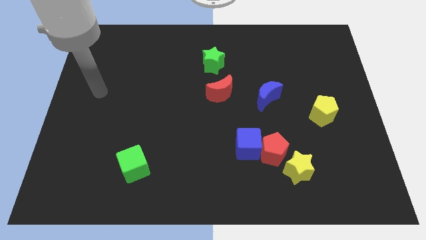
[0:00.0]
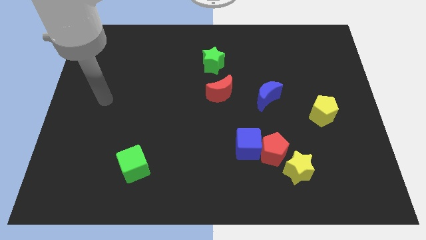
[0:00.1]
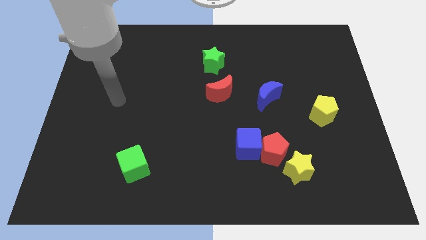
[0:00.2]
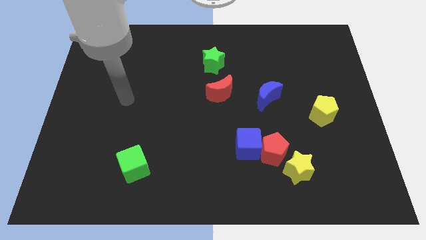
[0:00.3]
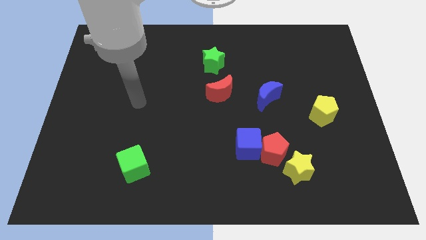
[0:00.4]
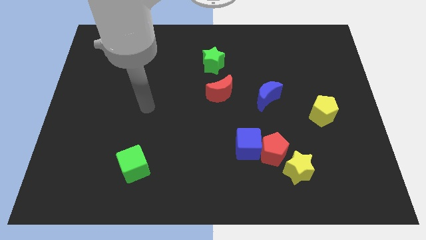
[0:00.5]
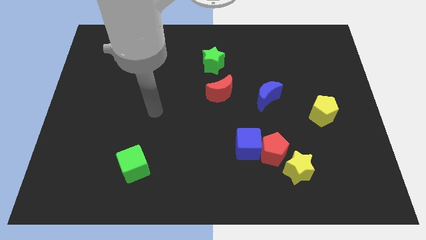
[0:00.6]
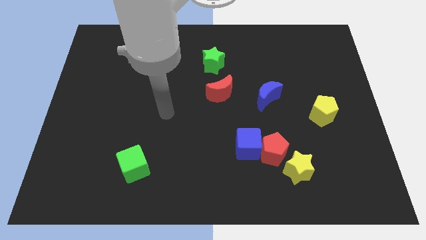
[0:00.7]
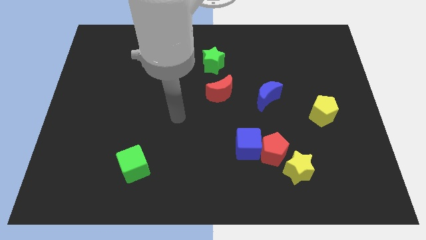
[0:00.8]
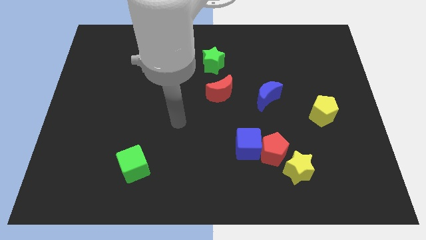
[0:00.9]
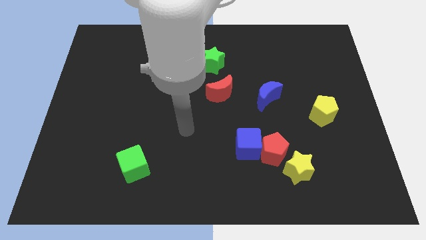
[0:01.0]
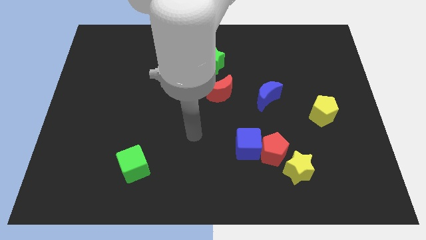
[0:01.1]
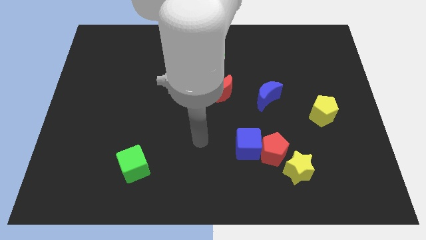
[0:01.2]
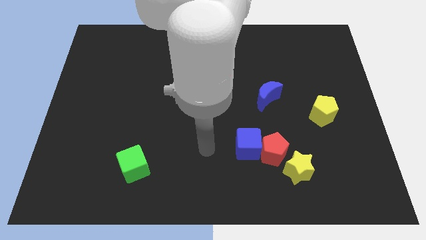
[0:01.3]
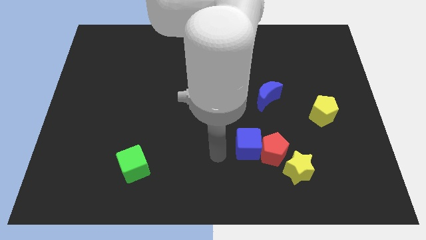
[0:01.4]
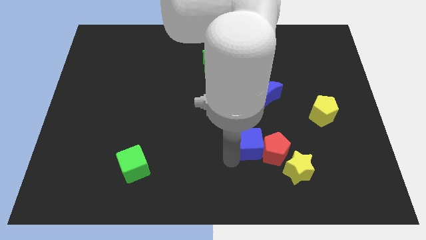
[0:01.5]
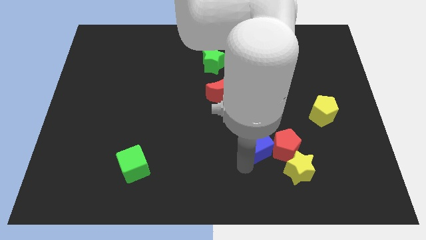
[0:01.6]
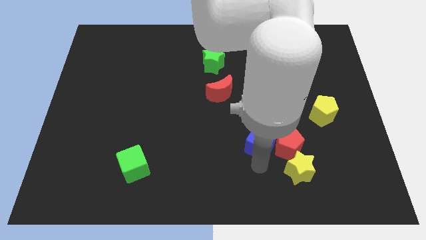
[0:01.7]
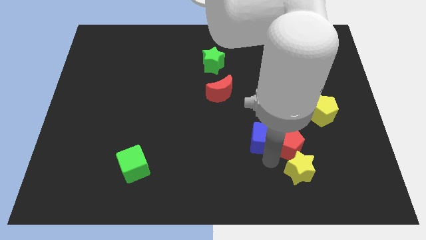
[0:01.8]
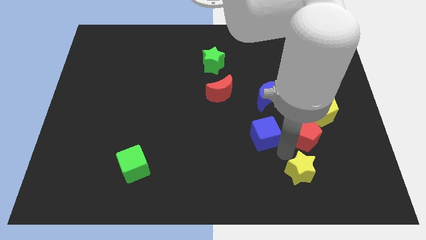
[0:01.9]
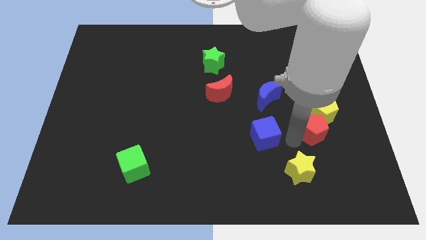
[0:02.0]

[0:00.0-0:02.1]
separate the blue cube from the red pentagon

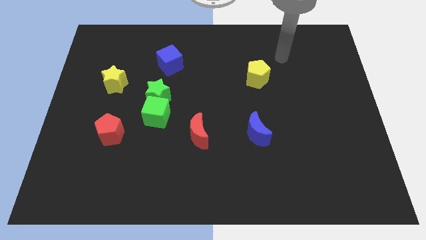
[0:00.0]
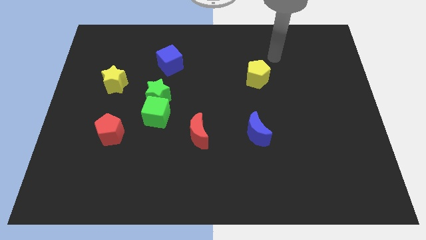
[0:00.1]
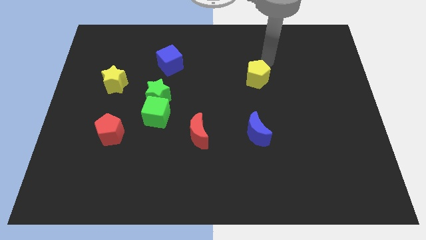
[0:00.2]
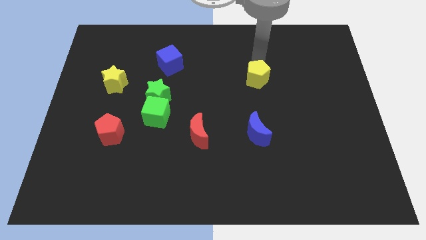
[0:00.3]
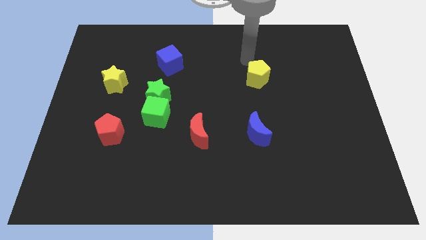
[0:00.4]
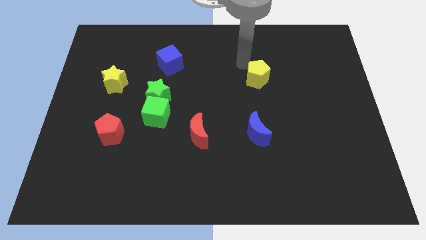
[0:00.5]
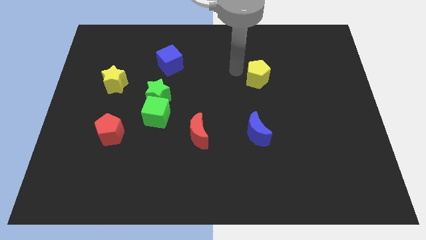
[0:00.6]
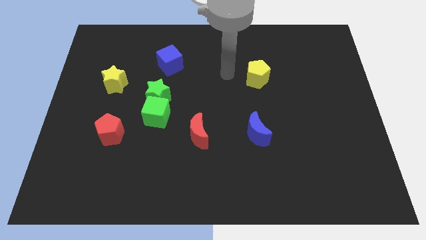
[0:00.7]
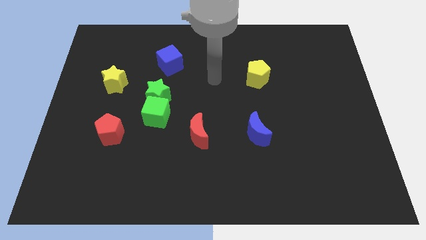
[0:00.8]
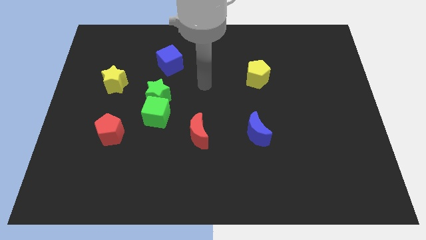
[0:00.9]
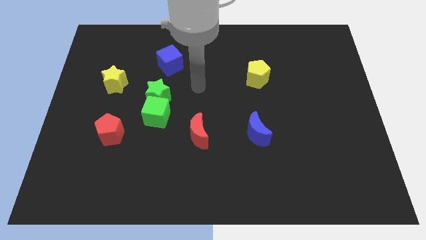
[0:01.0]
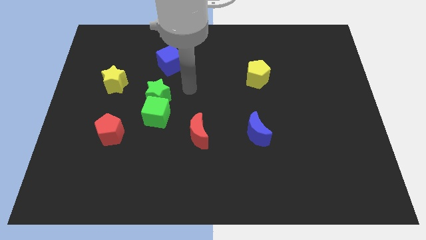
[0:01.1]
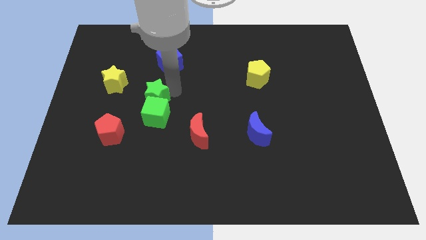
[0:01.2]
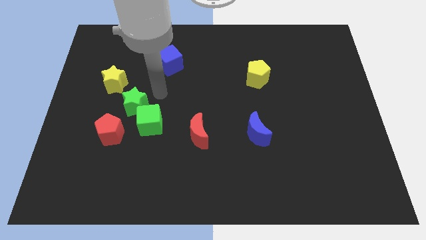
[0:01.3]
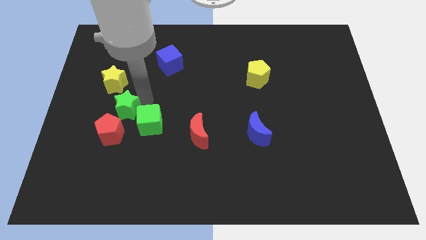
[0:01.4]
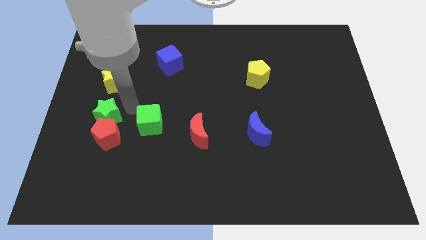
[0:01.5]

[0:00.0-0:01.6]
pull the green cube apart from the green star

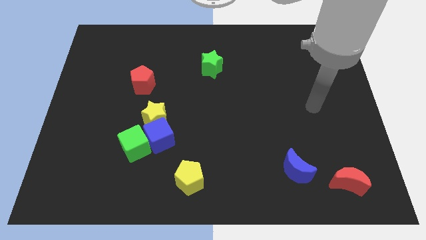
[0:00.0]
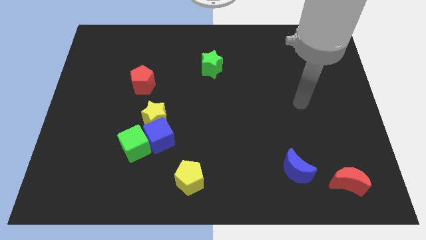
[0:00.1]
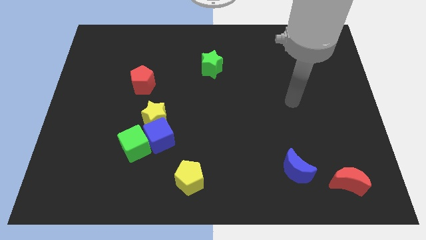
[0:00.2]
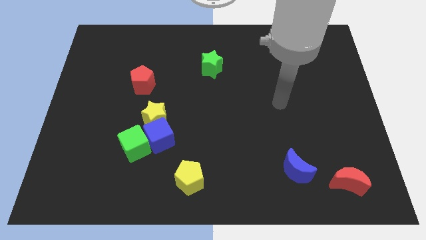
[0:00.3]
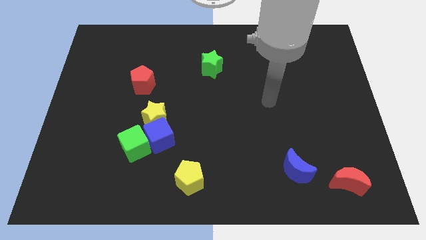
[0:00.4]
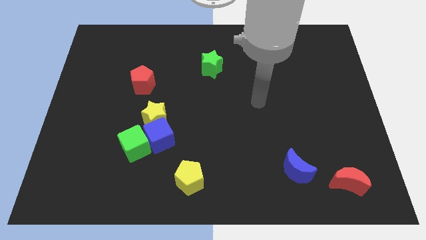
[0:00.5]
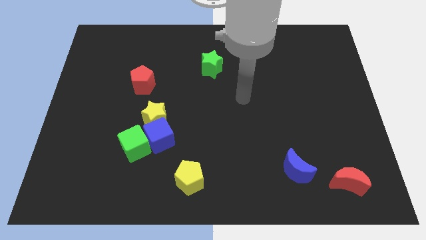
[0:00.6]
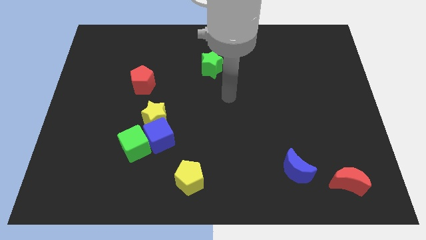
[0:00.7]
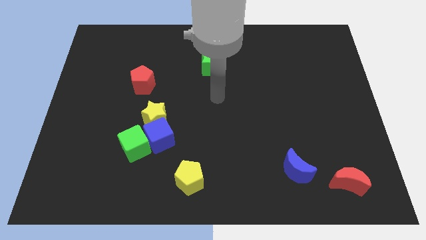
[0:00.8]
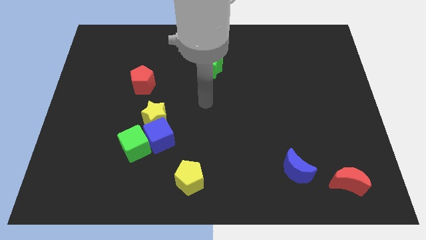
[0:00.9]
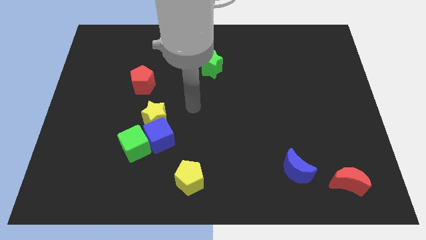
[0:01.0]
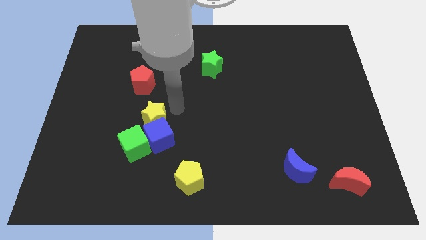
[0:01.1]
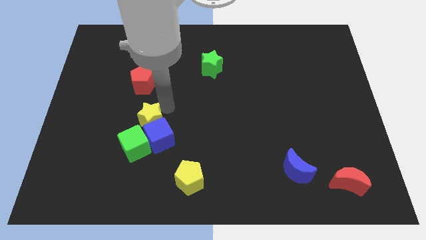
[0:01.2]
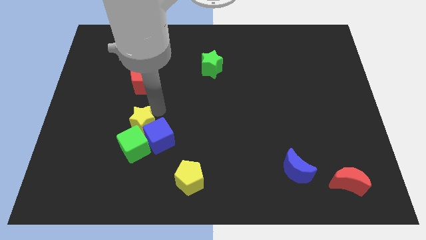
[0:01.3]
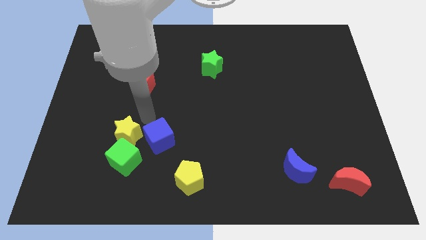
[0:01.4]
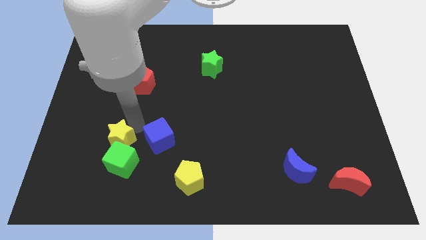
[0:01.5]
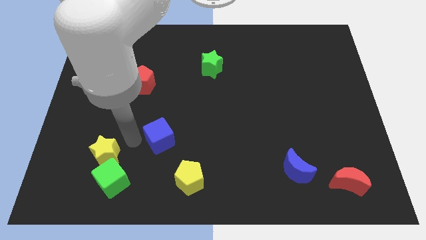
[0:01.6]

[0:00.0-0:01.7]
move the blue cube away from the yellow star and green cube

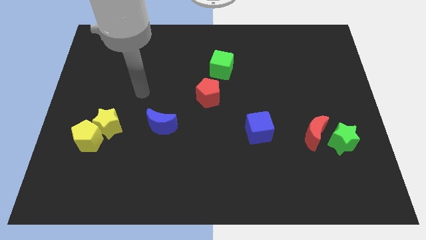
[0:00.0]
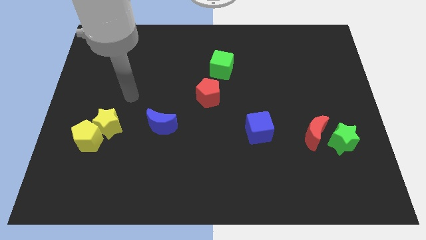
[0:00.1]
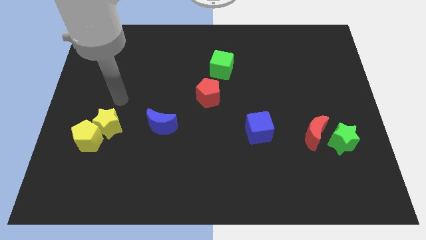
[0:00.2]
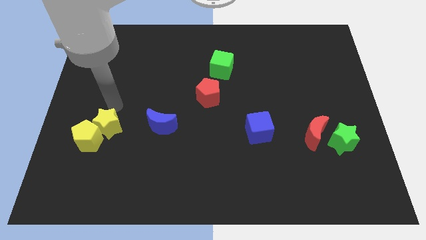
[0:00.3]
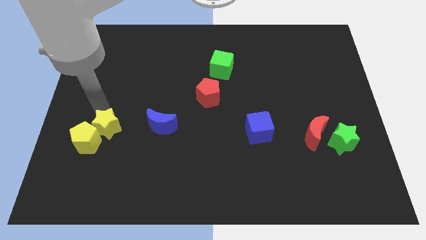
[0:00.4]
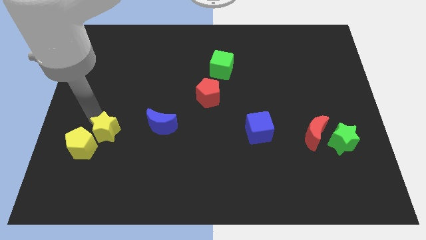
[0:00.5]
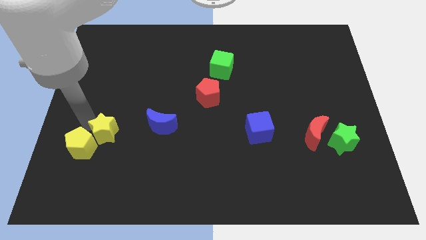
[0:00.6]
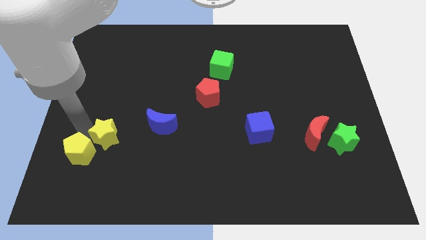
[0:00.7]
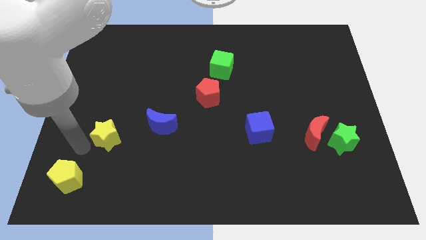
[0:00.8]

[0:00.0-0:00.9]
separate the yellow star from the yellow pentagon

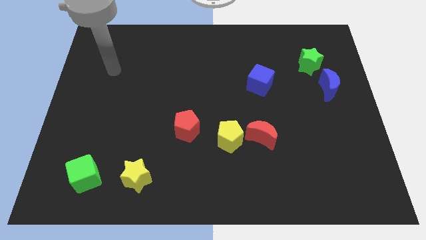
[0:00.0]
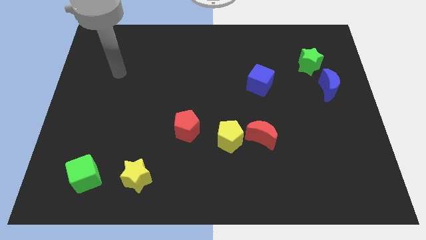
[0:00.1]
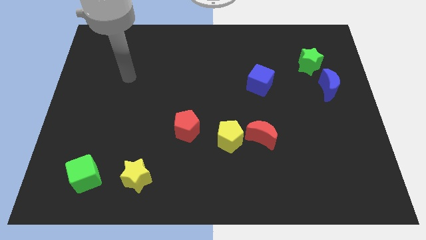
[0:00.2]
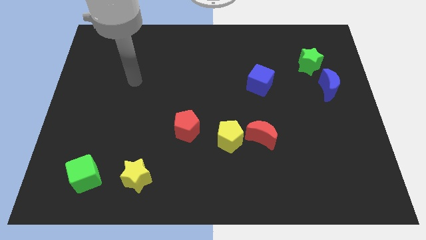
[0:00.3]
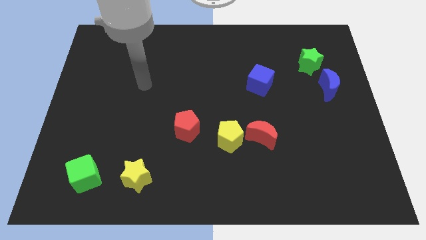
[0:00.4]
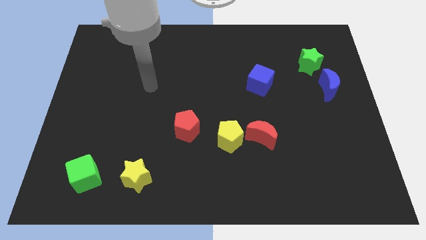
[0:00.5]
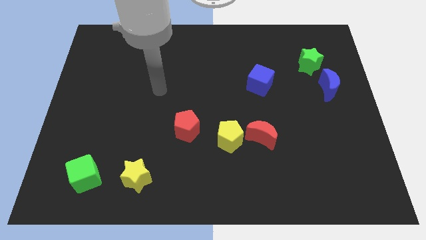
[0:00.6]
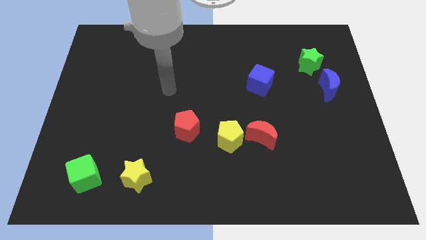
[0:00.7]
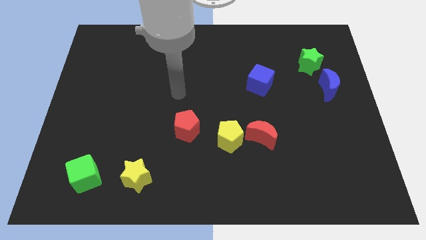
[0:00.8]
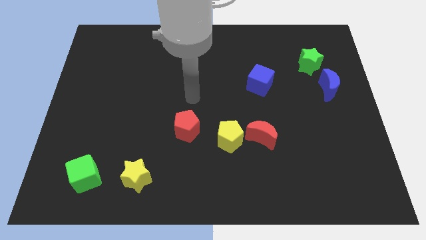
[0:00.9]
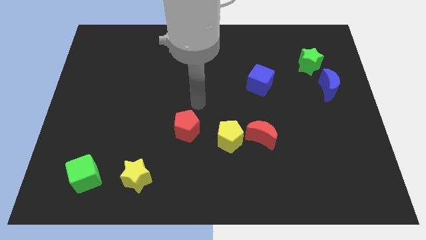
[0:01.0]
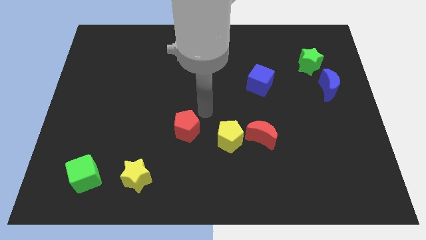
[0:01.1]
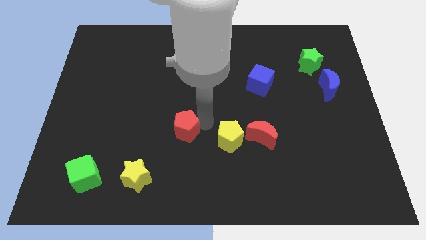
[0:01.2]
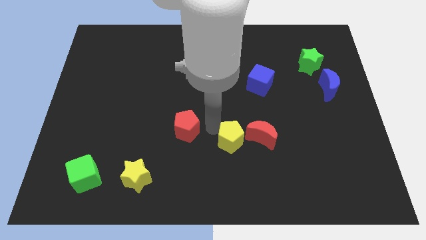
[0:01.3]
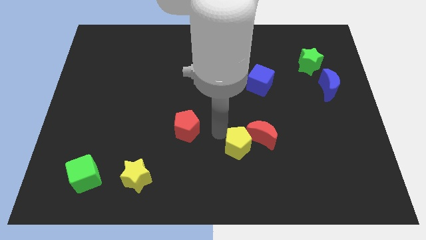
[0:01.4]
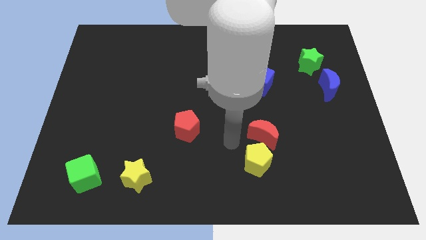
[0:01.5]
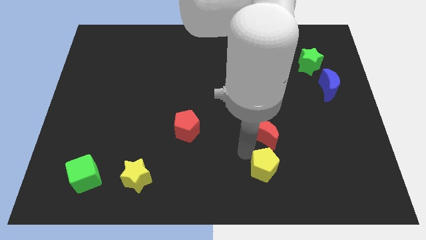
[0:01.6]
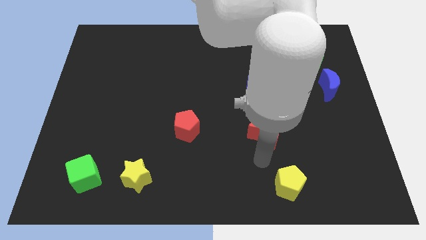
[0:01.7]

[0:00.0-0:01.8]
pull the red moon apart from the yellow pentagon

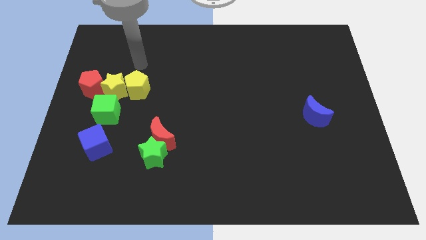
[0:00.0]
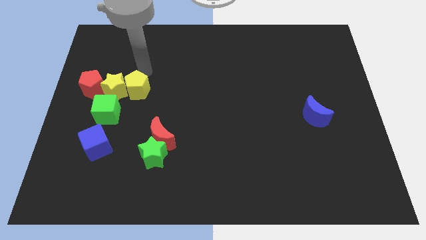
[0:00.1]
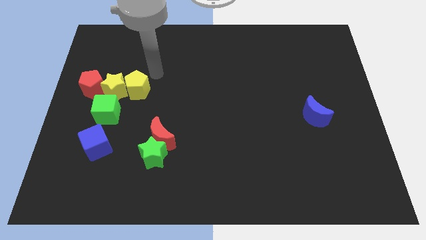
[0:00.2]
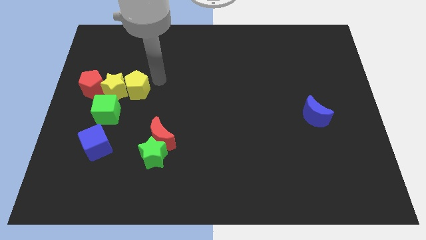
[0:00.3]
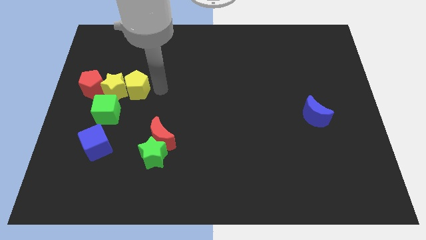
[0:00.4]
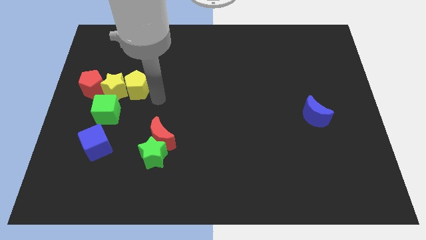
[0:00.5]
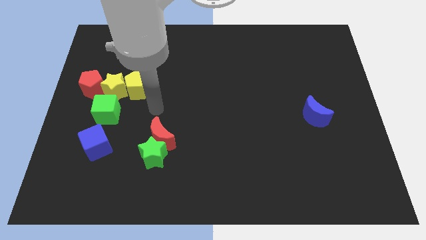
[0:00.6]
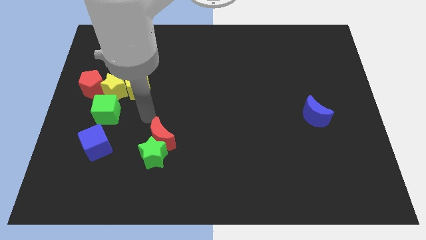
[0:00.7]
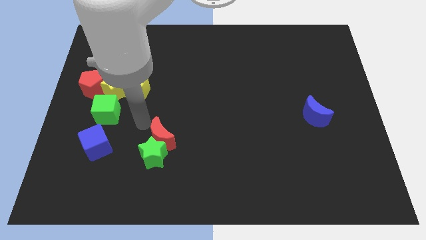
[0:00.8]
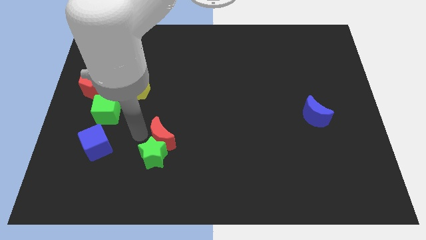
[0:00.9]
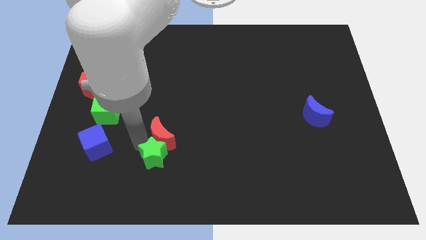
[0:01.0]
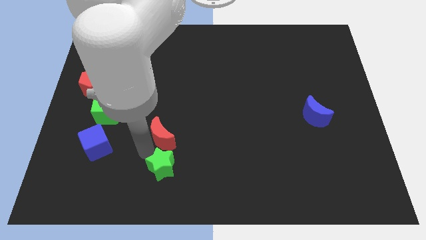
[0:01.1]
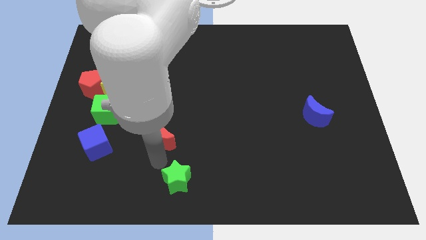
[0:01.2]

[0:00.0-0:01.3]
move the red moon away from the green star

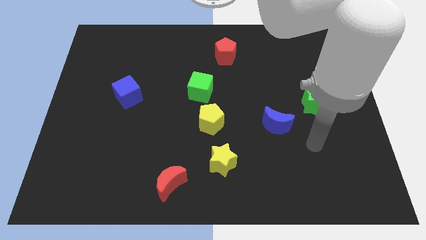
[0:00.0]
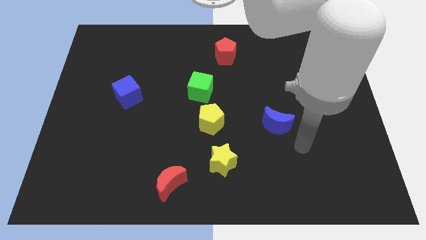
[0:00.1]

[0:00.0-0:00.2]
separate the green cube from the yellow pentagon
